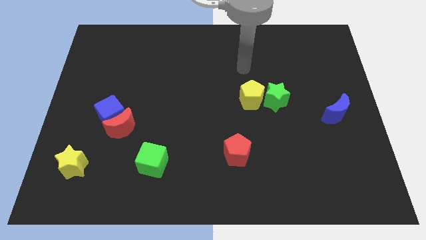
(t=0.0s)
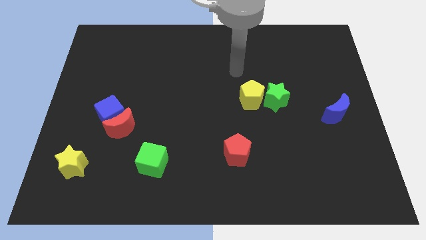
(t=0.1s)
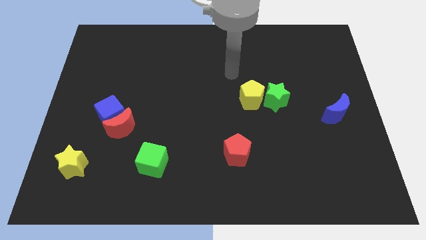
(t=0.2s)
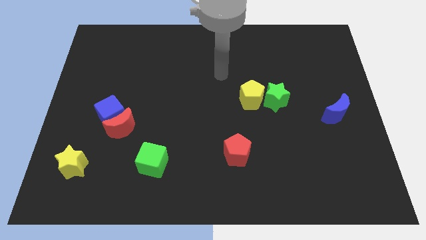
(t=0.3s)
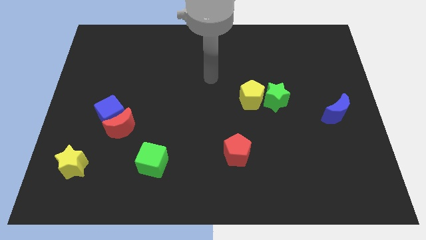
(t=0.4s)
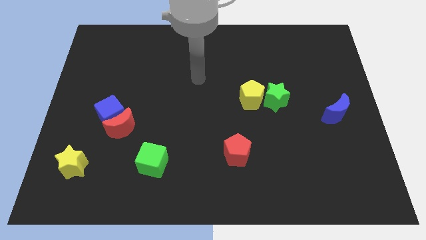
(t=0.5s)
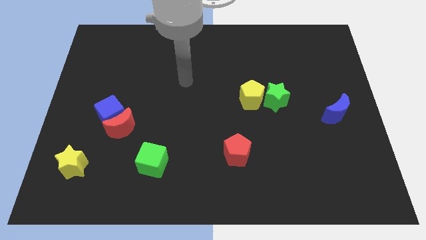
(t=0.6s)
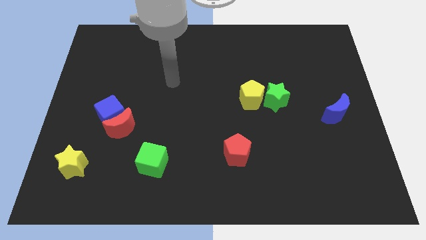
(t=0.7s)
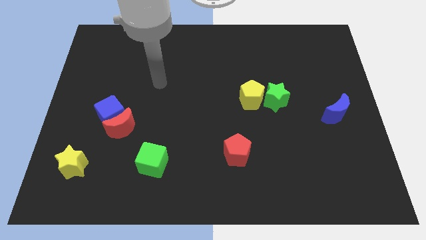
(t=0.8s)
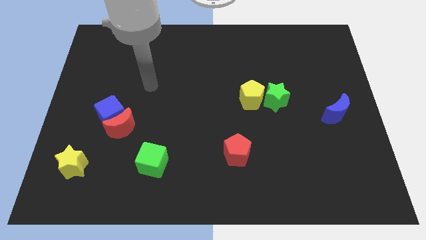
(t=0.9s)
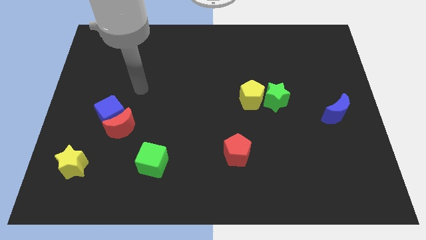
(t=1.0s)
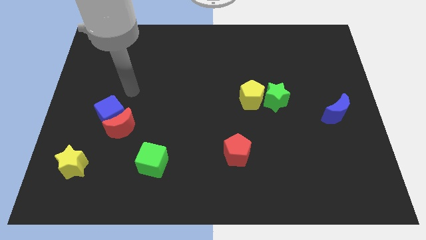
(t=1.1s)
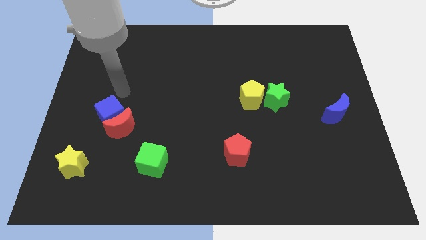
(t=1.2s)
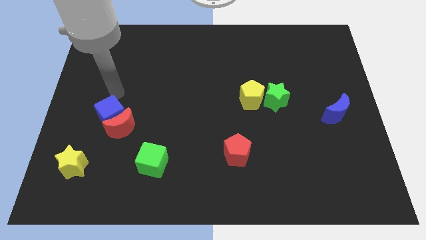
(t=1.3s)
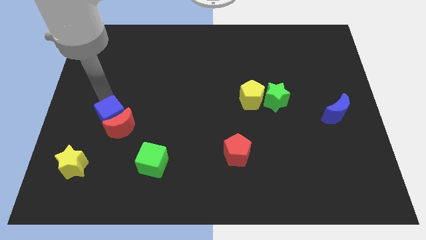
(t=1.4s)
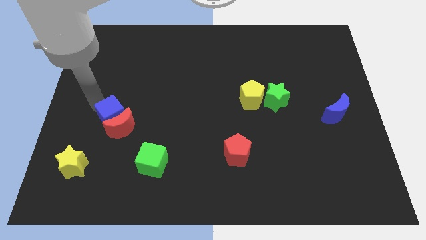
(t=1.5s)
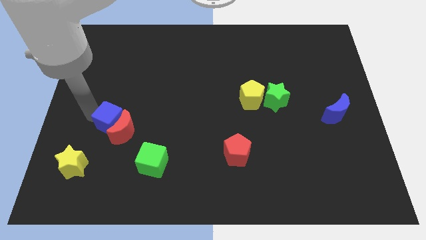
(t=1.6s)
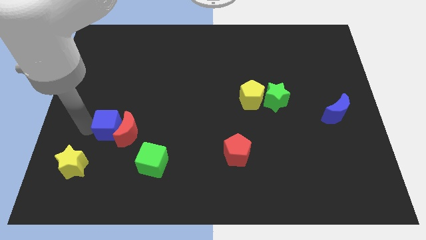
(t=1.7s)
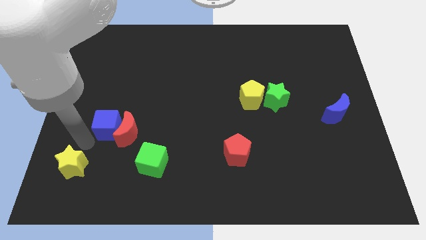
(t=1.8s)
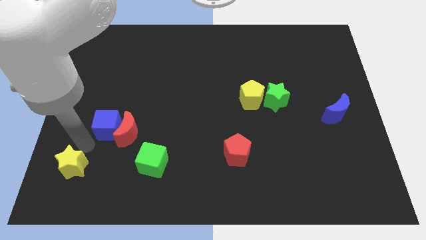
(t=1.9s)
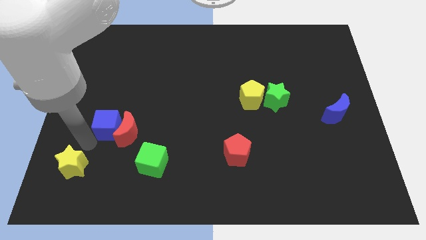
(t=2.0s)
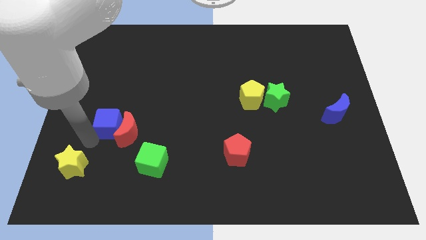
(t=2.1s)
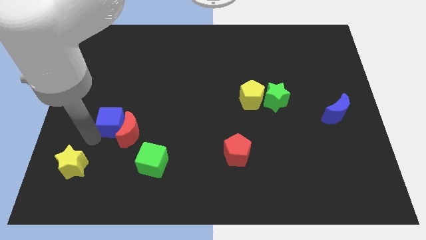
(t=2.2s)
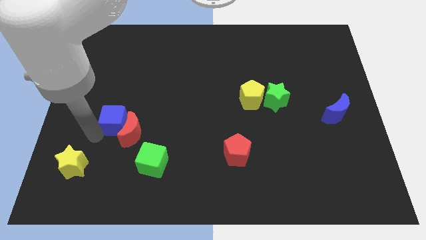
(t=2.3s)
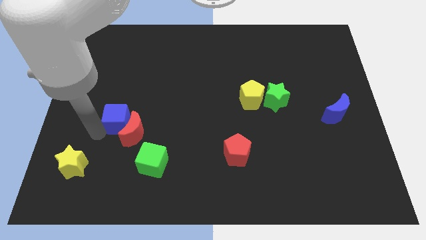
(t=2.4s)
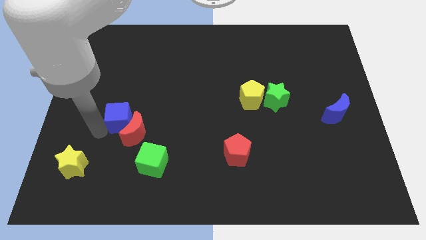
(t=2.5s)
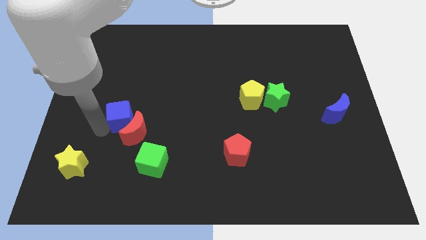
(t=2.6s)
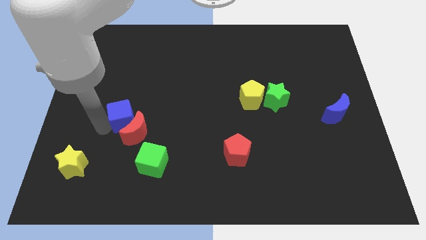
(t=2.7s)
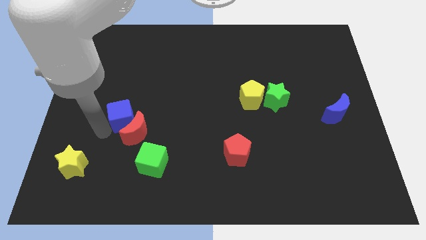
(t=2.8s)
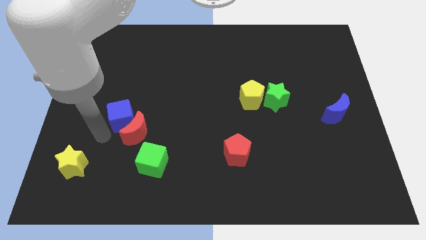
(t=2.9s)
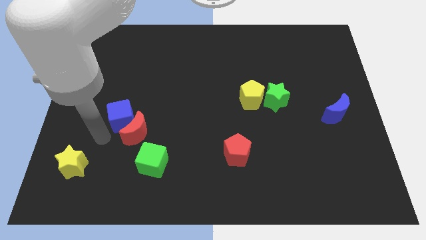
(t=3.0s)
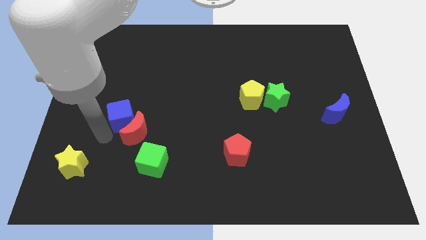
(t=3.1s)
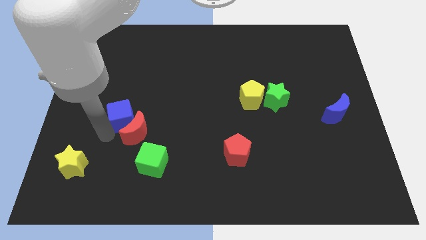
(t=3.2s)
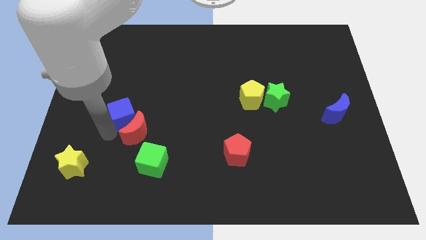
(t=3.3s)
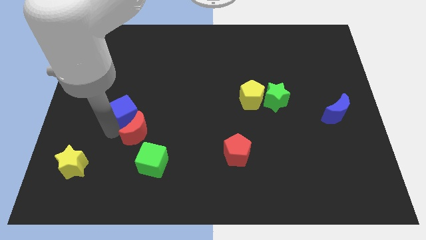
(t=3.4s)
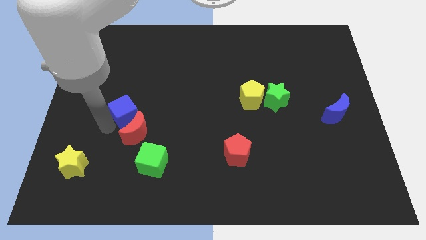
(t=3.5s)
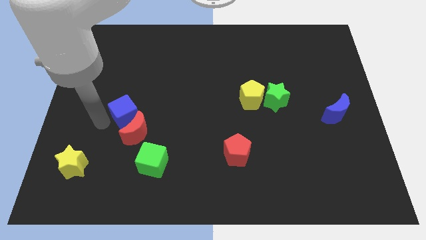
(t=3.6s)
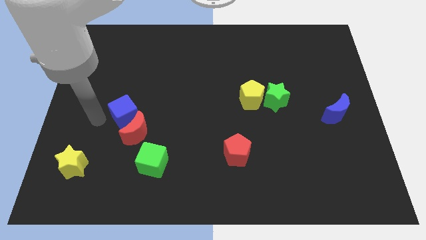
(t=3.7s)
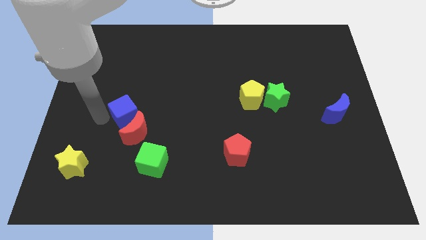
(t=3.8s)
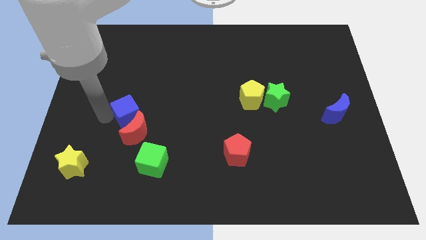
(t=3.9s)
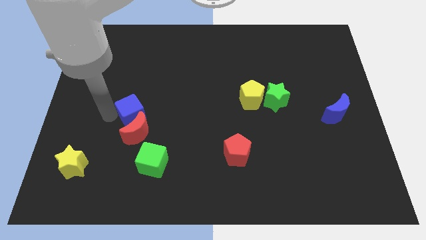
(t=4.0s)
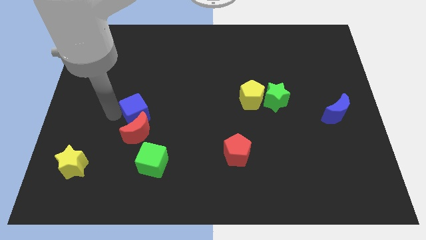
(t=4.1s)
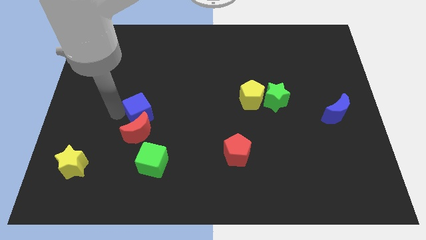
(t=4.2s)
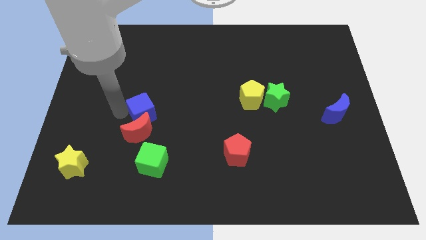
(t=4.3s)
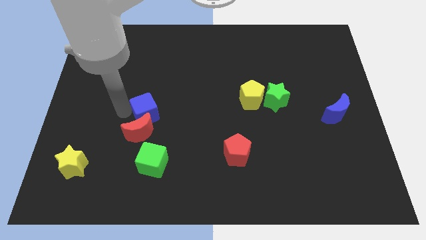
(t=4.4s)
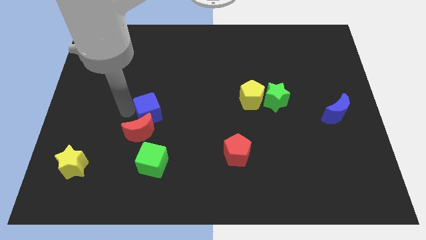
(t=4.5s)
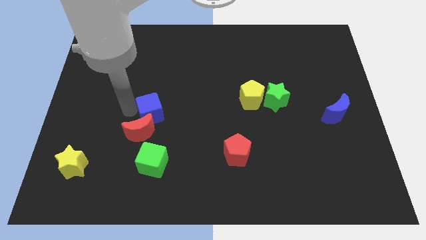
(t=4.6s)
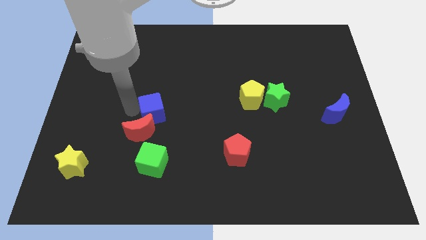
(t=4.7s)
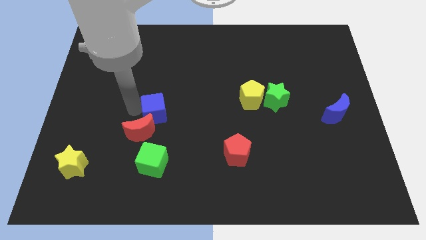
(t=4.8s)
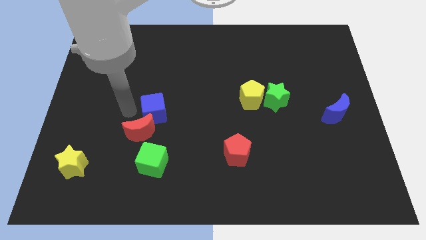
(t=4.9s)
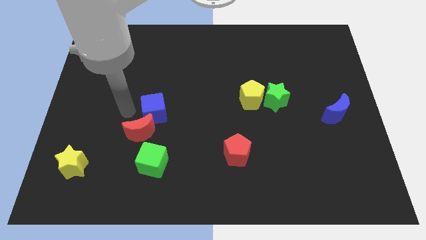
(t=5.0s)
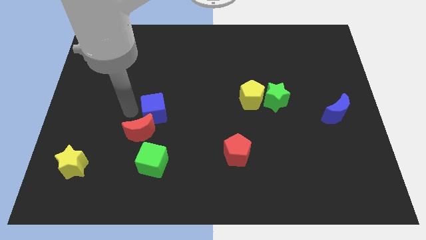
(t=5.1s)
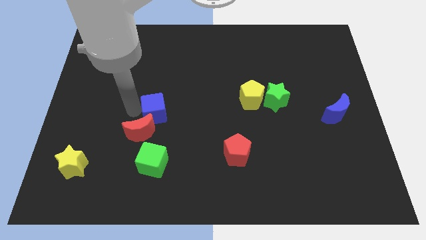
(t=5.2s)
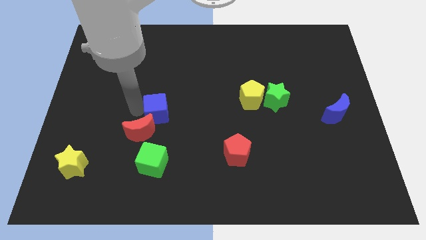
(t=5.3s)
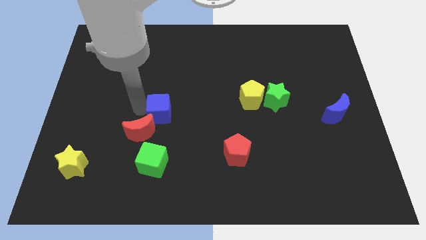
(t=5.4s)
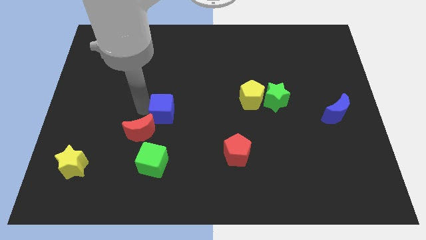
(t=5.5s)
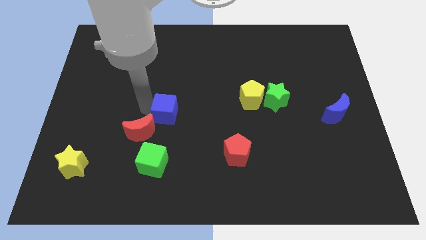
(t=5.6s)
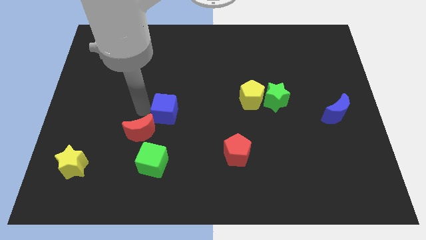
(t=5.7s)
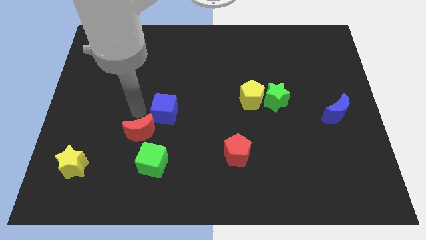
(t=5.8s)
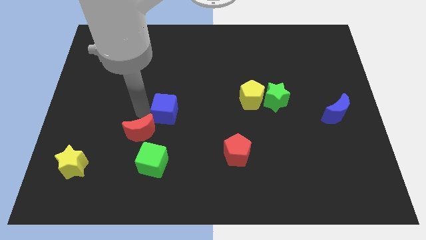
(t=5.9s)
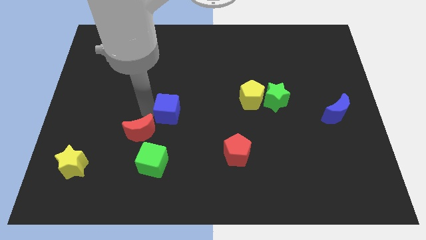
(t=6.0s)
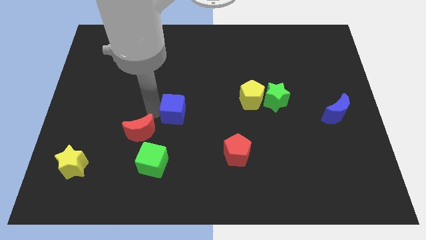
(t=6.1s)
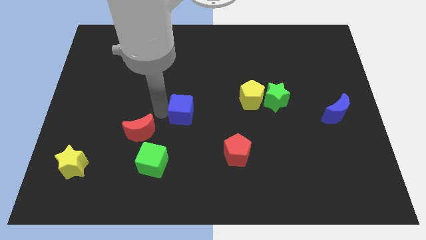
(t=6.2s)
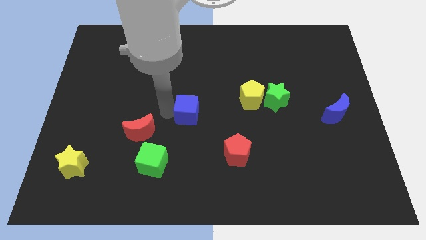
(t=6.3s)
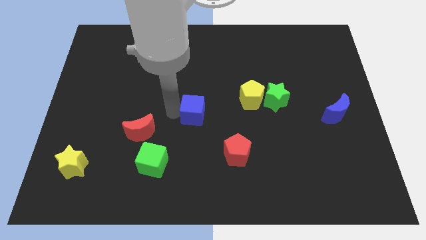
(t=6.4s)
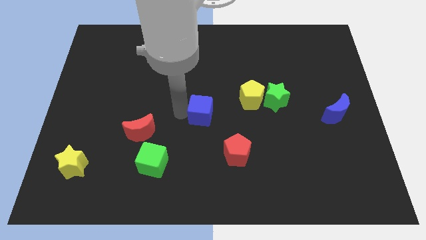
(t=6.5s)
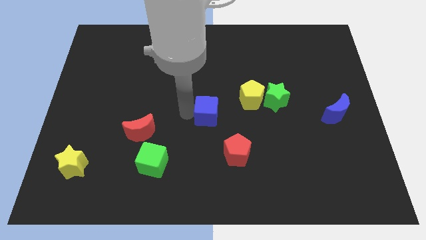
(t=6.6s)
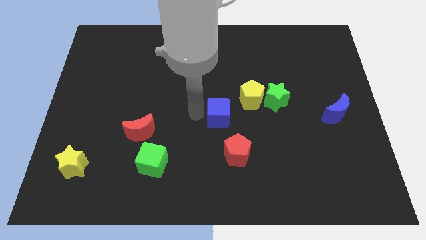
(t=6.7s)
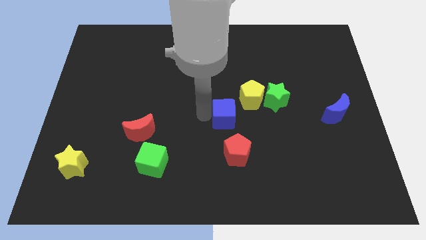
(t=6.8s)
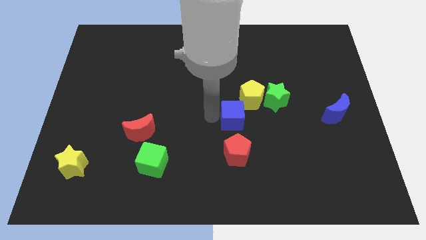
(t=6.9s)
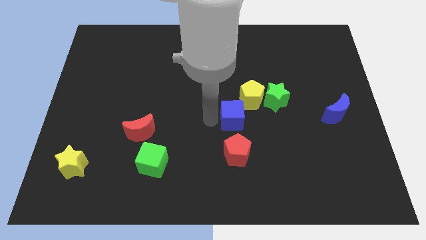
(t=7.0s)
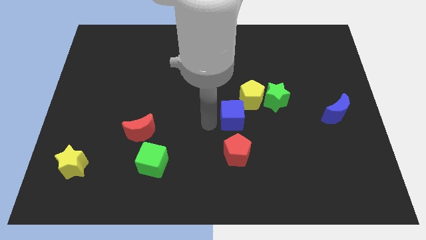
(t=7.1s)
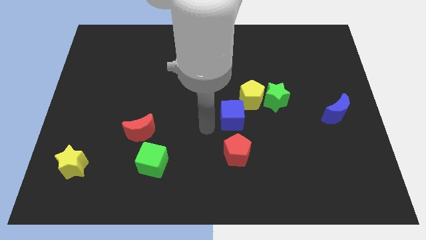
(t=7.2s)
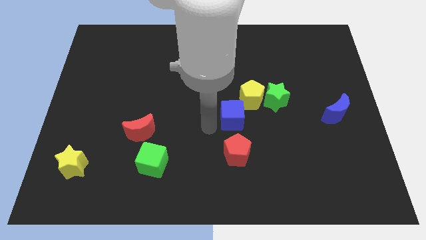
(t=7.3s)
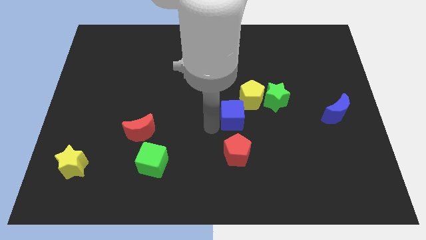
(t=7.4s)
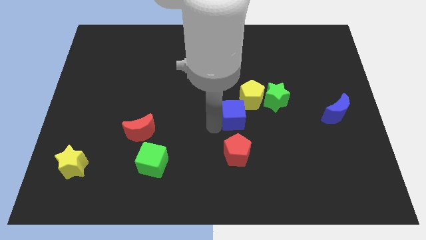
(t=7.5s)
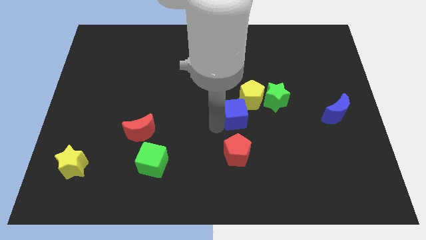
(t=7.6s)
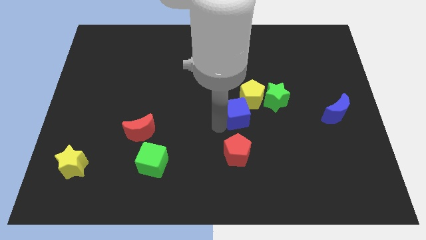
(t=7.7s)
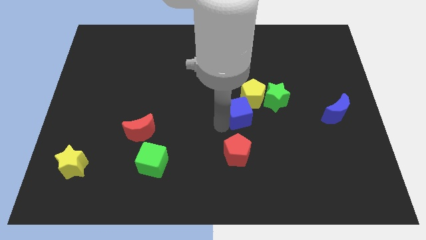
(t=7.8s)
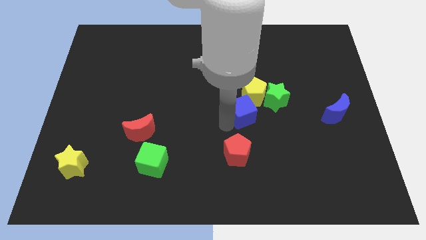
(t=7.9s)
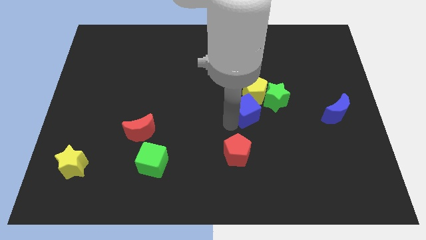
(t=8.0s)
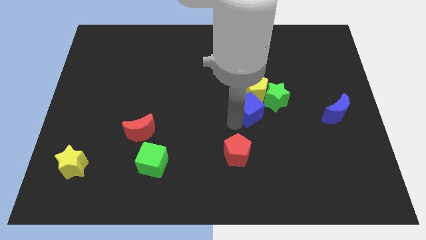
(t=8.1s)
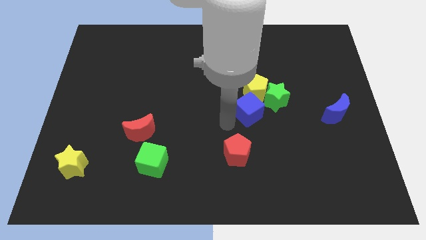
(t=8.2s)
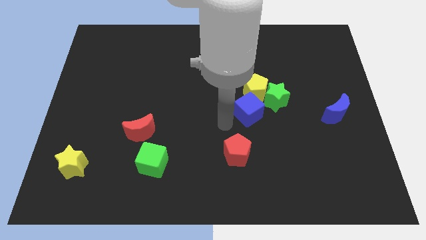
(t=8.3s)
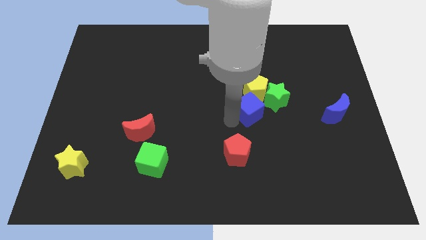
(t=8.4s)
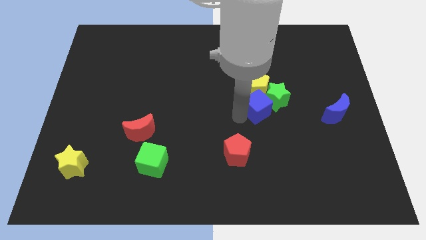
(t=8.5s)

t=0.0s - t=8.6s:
push the blue cube next to the green star
